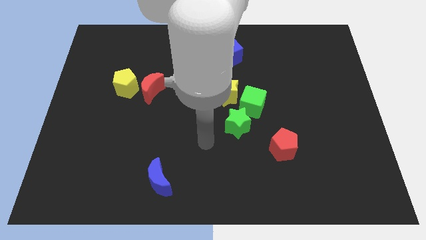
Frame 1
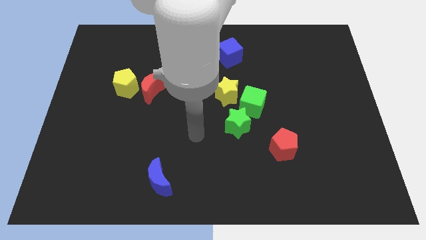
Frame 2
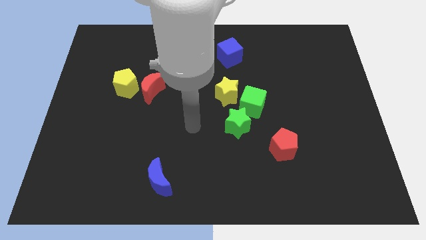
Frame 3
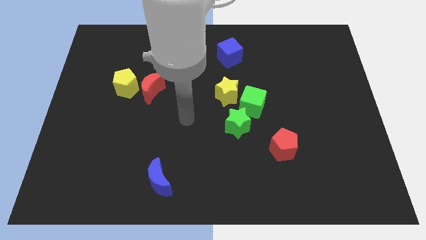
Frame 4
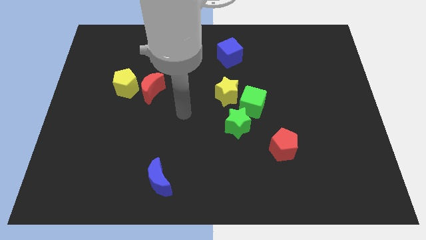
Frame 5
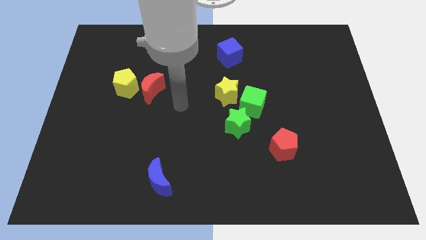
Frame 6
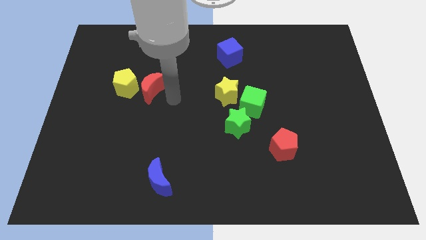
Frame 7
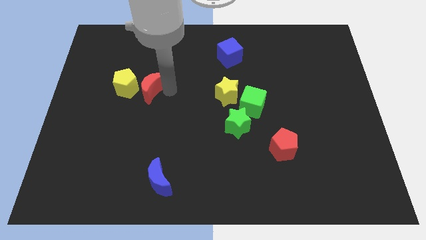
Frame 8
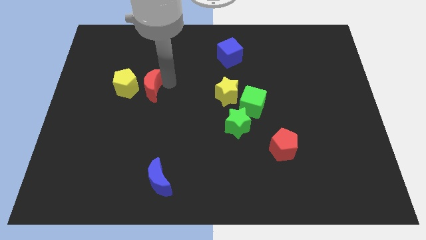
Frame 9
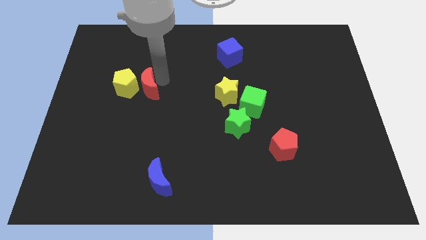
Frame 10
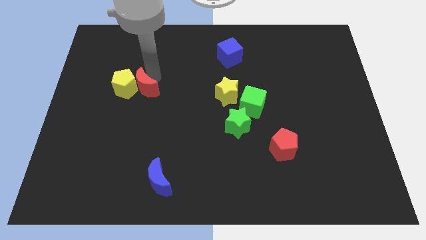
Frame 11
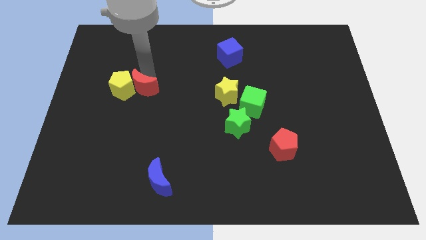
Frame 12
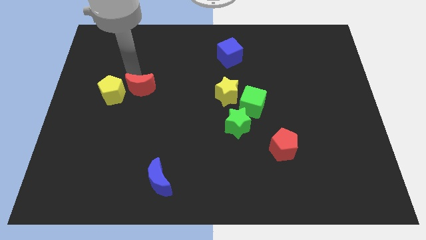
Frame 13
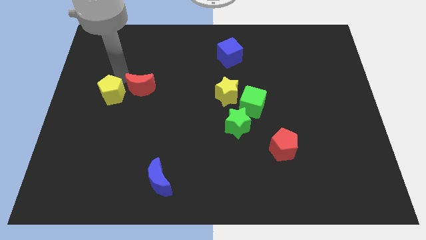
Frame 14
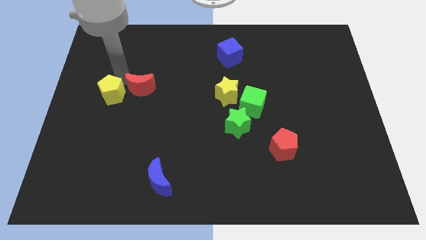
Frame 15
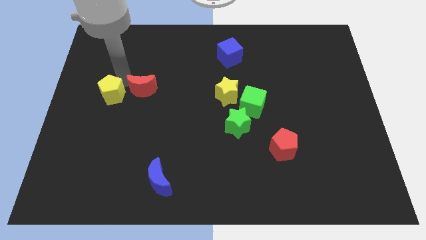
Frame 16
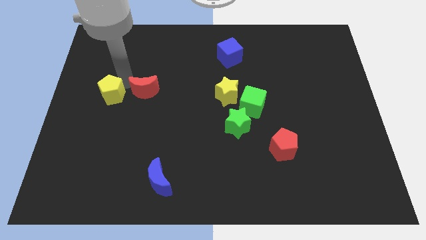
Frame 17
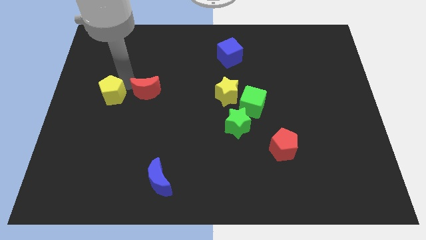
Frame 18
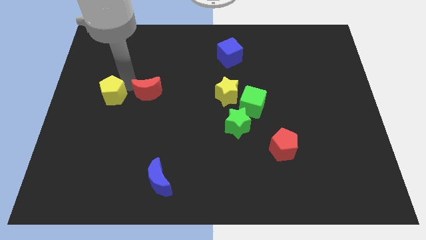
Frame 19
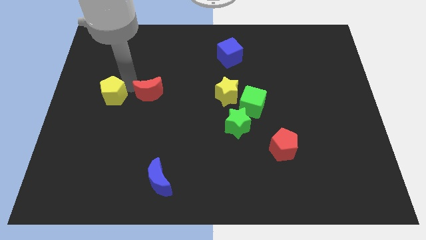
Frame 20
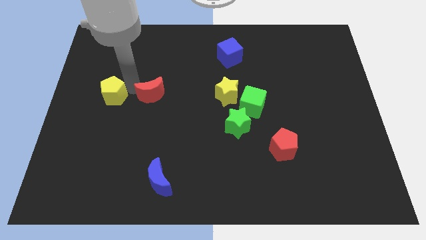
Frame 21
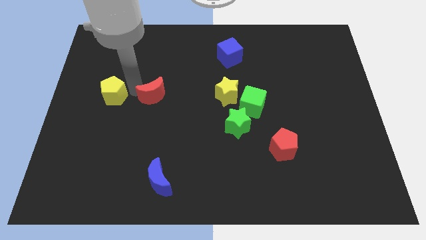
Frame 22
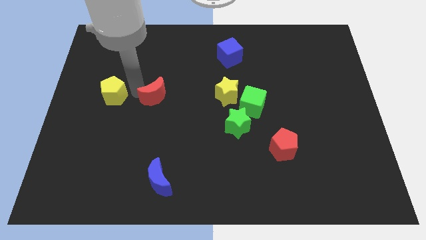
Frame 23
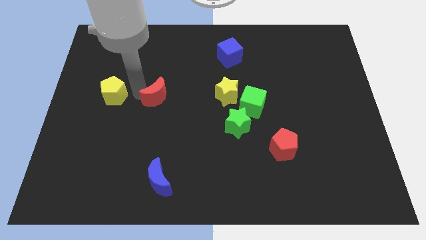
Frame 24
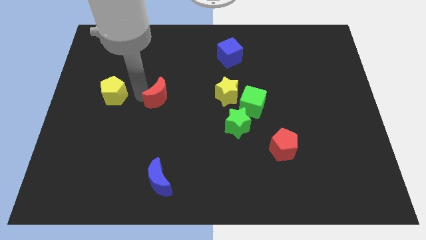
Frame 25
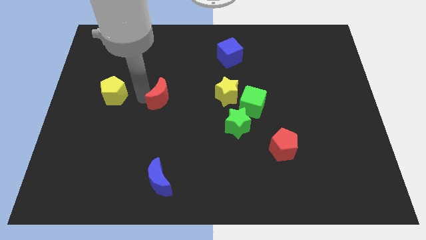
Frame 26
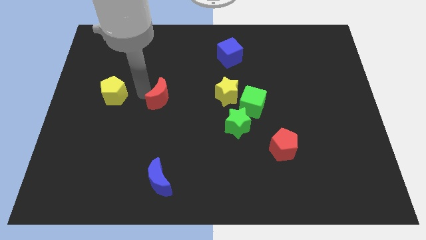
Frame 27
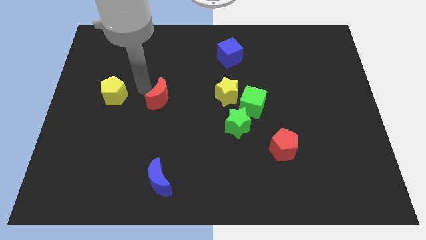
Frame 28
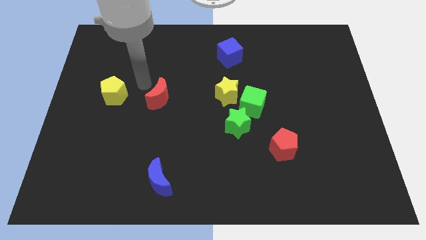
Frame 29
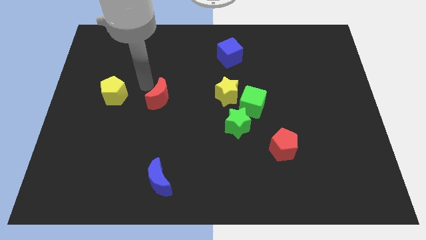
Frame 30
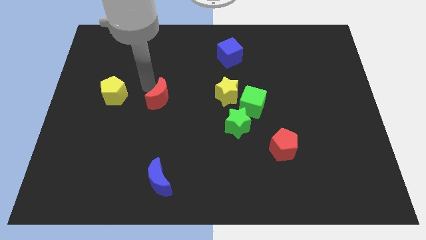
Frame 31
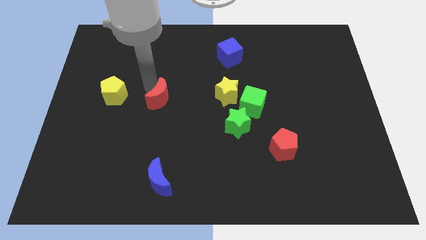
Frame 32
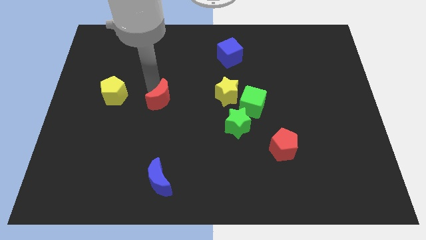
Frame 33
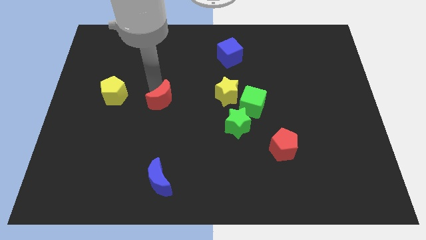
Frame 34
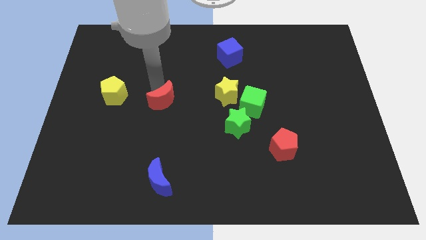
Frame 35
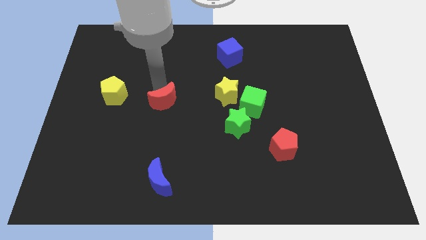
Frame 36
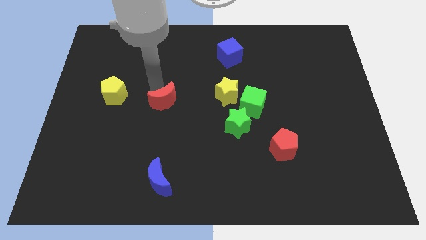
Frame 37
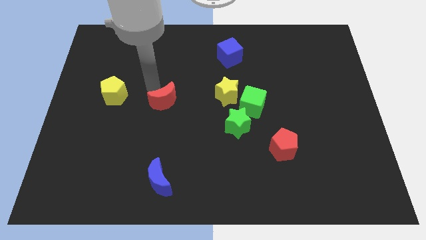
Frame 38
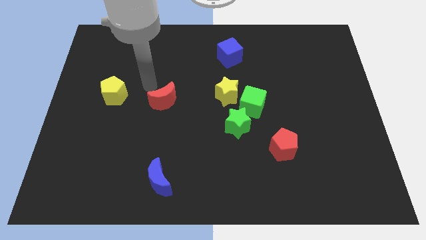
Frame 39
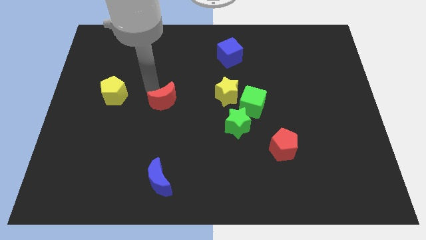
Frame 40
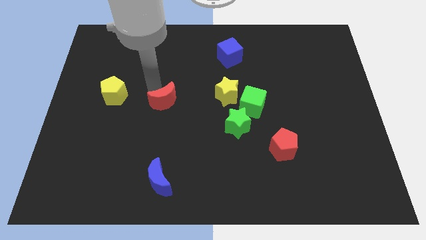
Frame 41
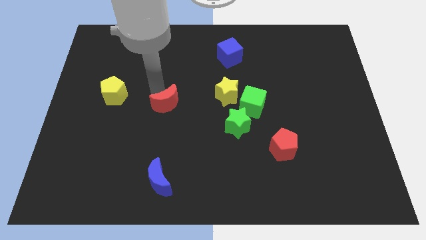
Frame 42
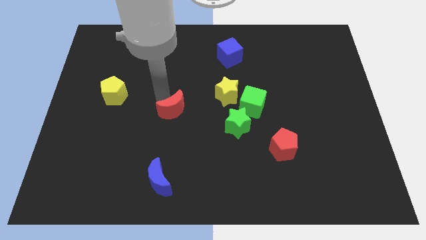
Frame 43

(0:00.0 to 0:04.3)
slide the red moon downwards and then to the right a bit

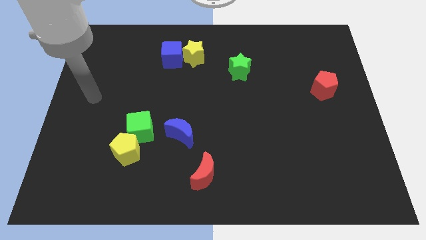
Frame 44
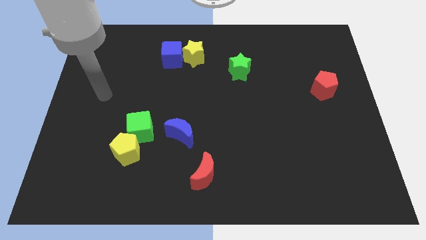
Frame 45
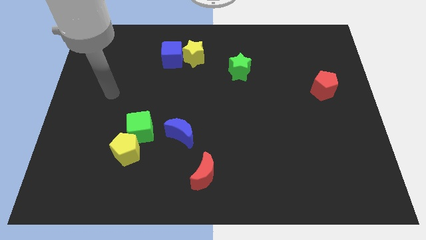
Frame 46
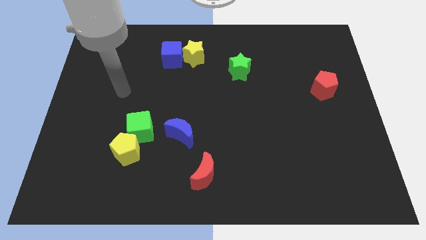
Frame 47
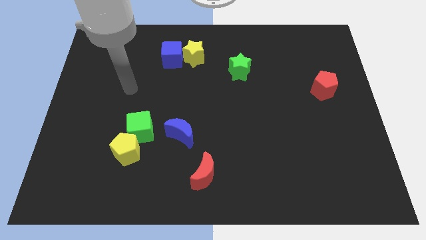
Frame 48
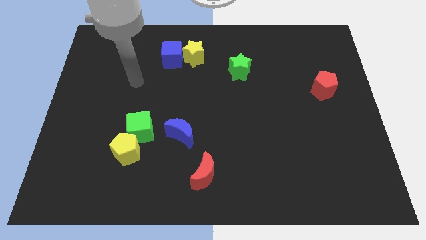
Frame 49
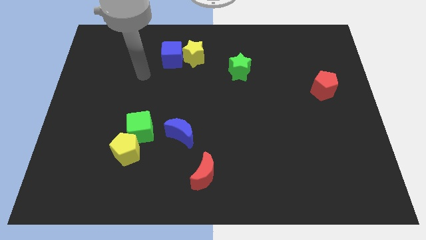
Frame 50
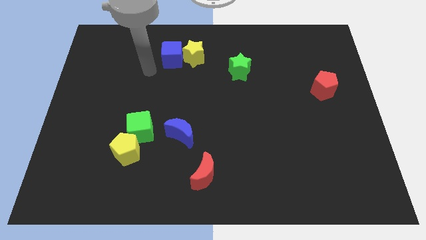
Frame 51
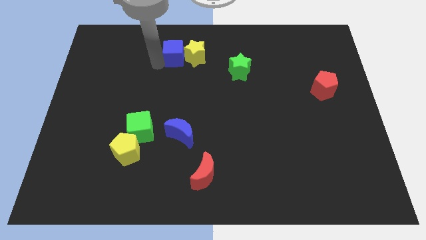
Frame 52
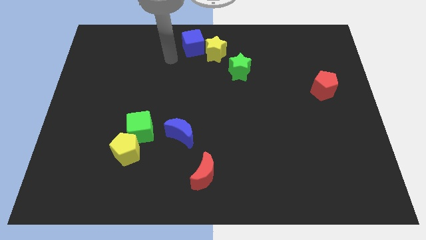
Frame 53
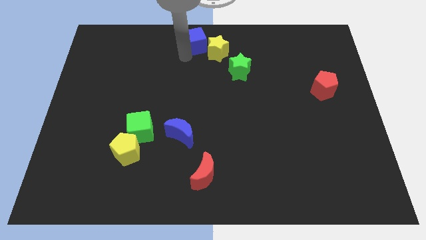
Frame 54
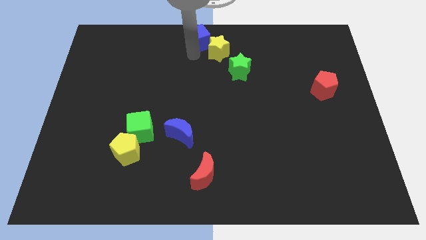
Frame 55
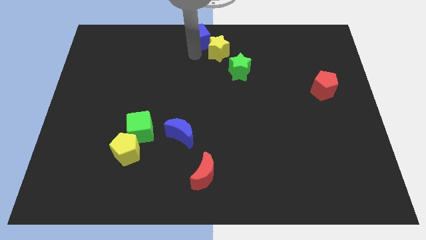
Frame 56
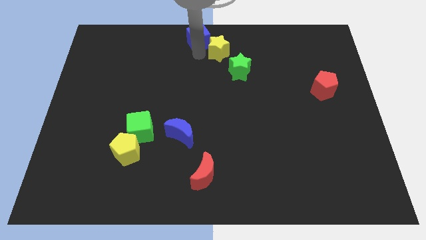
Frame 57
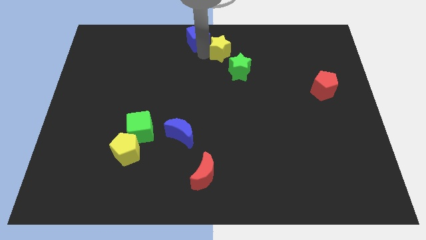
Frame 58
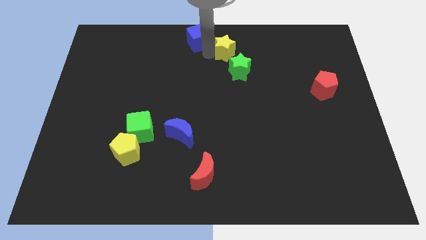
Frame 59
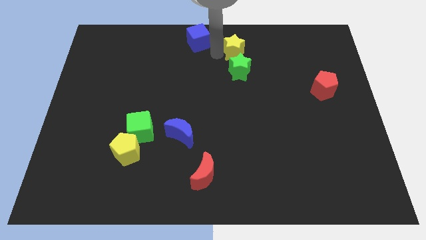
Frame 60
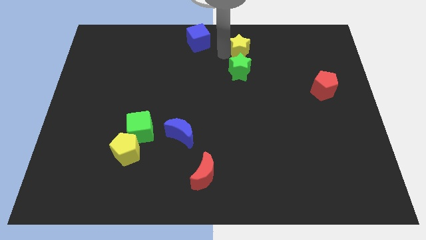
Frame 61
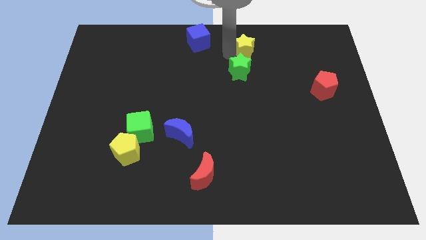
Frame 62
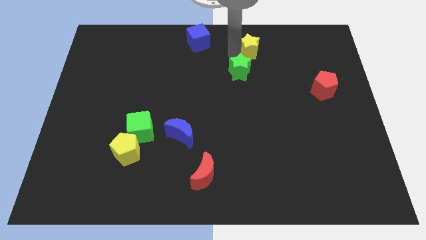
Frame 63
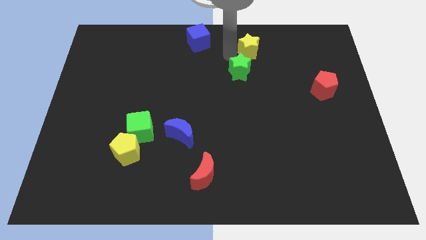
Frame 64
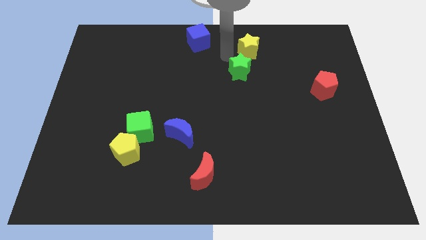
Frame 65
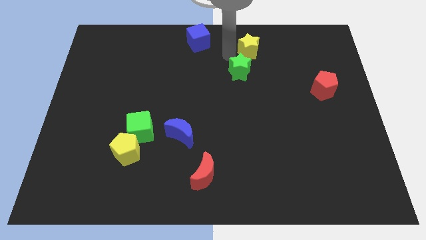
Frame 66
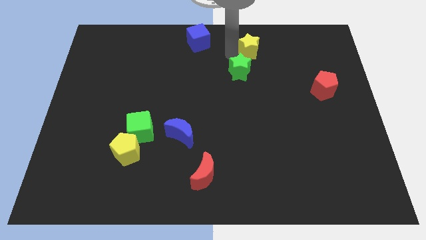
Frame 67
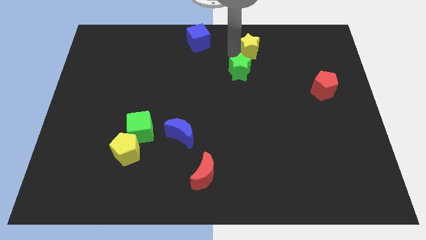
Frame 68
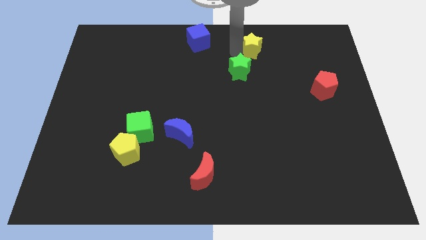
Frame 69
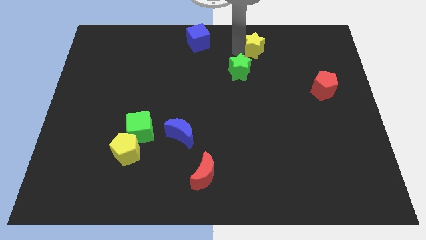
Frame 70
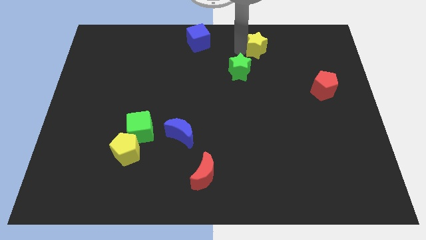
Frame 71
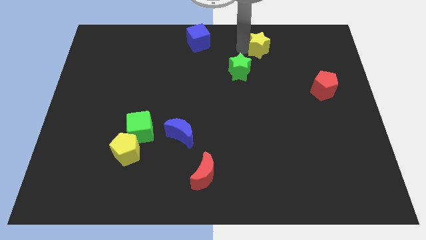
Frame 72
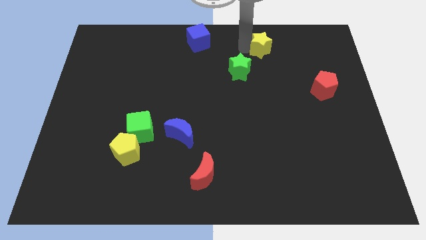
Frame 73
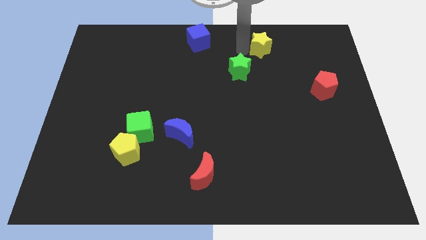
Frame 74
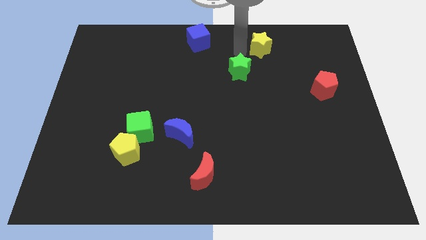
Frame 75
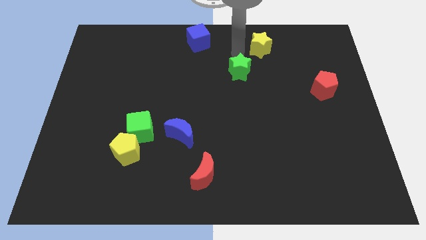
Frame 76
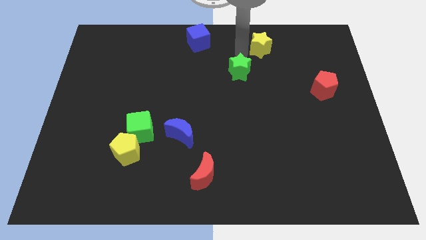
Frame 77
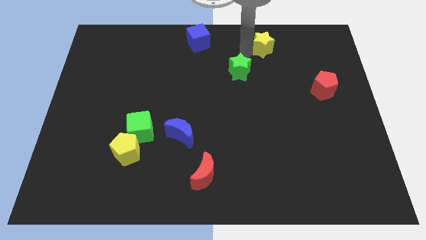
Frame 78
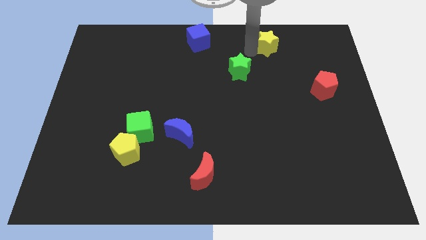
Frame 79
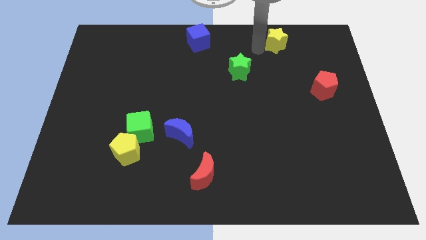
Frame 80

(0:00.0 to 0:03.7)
push the yellow star right
